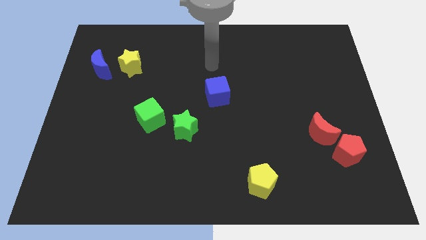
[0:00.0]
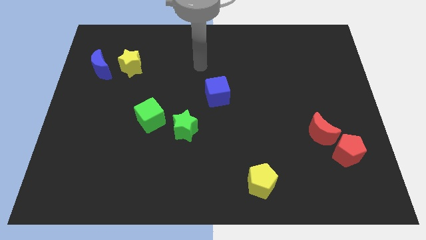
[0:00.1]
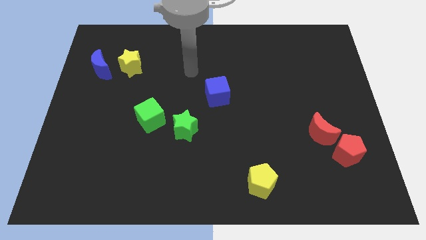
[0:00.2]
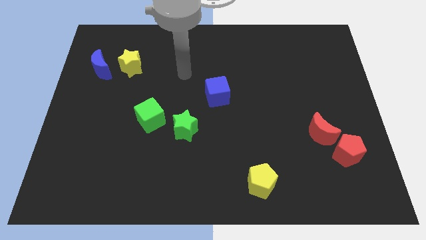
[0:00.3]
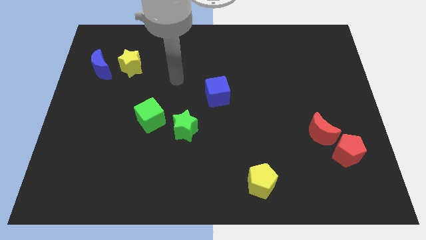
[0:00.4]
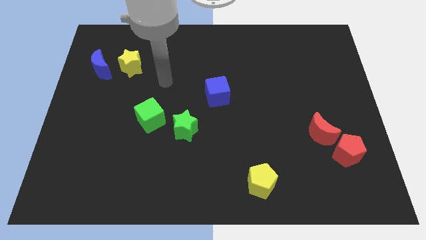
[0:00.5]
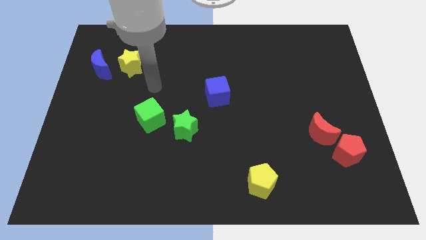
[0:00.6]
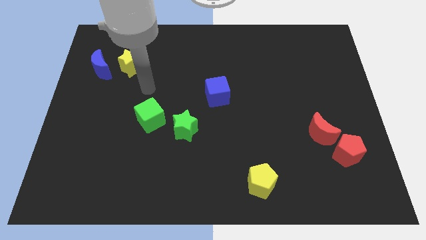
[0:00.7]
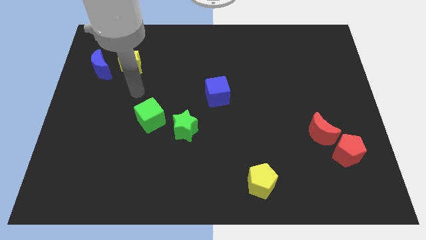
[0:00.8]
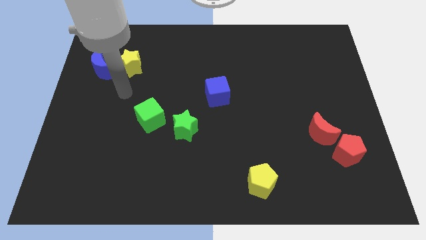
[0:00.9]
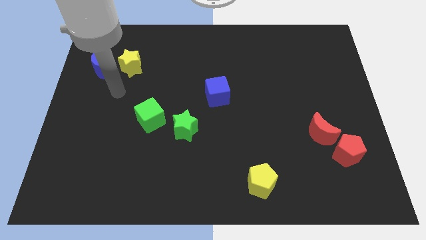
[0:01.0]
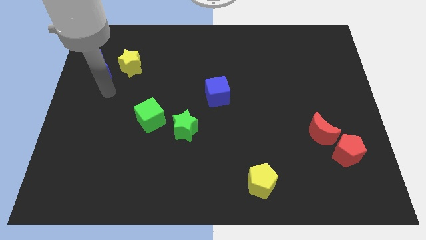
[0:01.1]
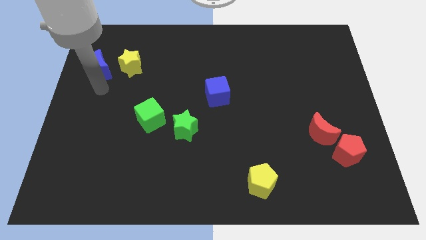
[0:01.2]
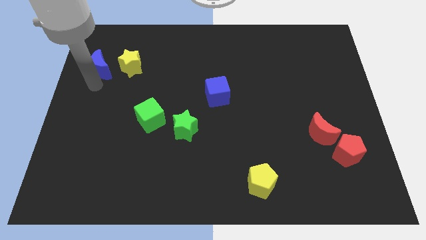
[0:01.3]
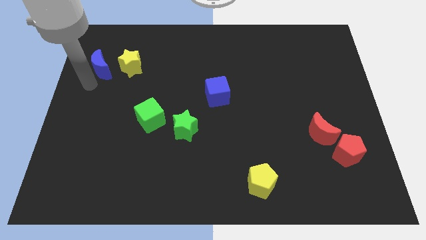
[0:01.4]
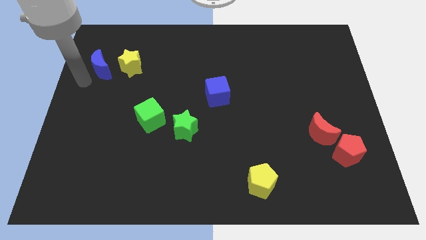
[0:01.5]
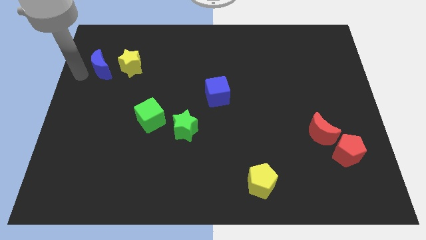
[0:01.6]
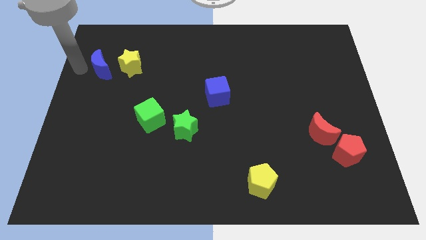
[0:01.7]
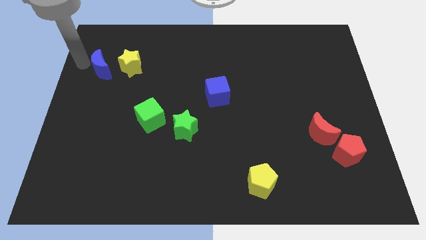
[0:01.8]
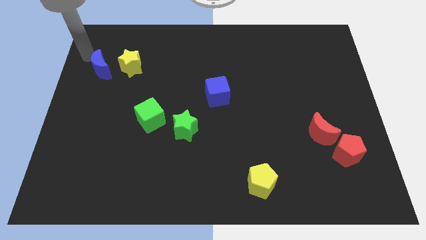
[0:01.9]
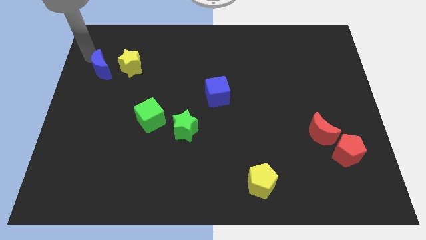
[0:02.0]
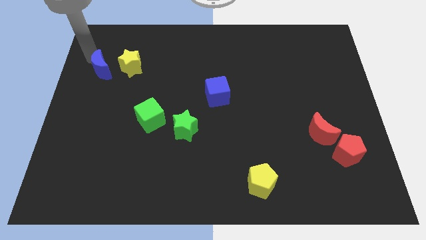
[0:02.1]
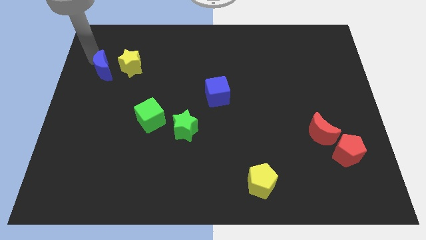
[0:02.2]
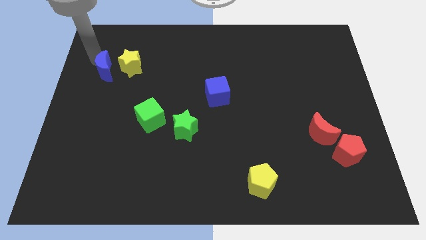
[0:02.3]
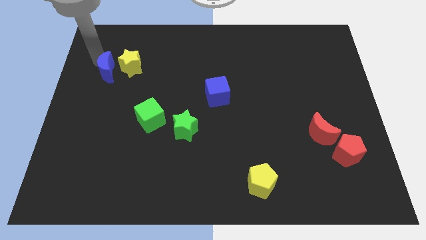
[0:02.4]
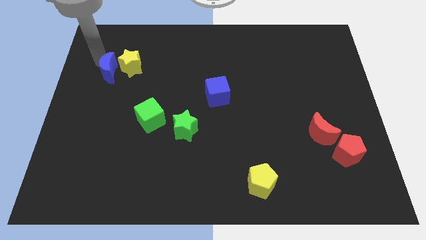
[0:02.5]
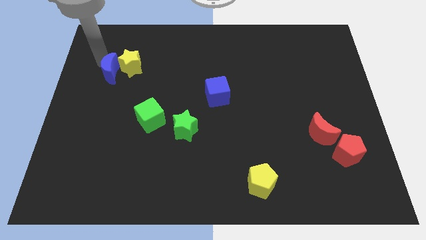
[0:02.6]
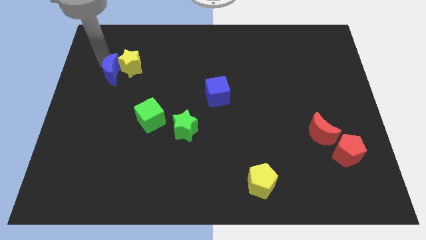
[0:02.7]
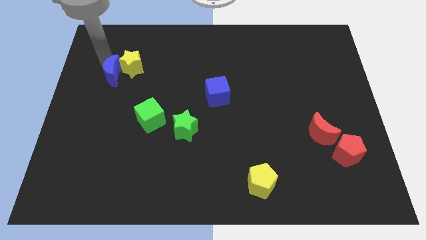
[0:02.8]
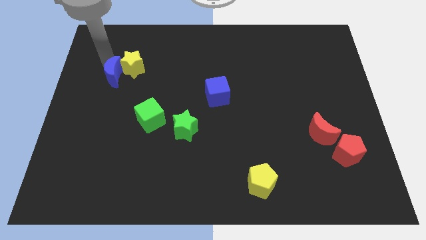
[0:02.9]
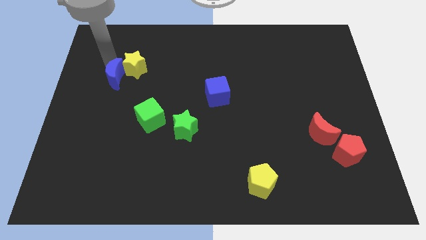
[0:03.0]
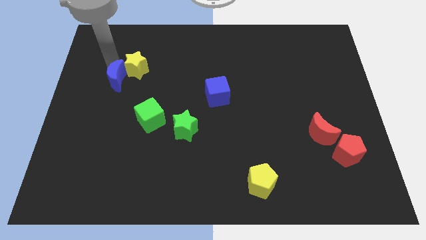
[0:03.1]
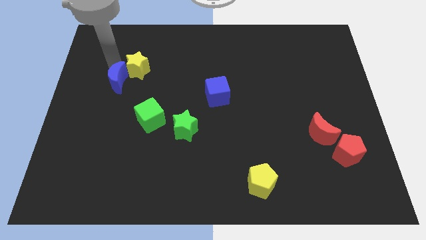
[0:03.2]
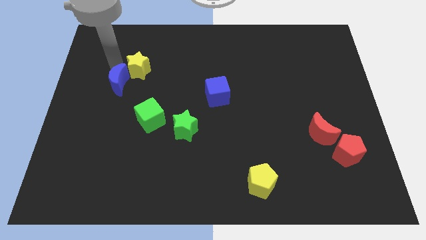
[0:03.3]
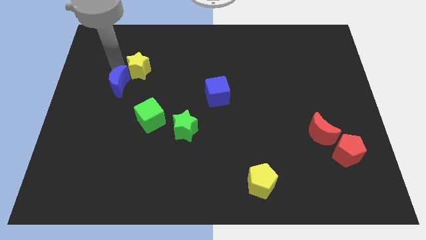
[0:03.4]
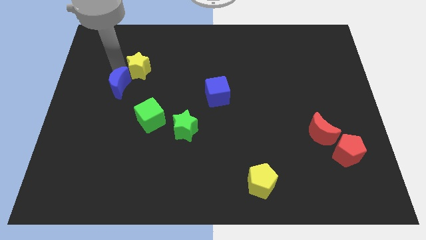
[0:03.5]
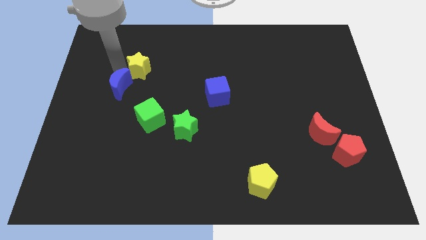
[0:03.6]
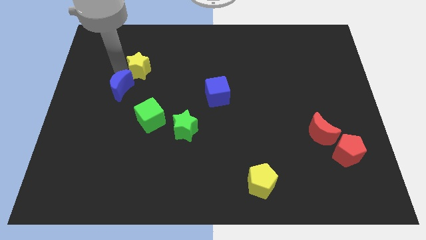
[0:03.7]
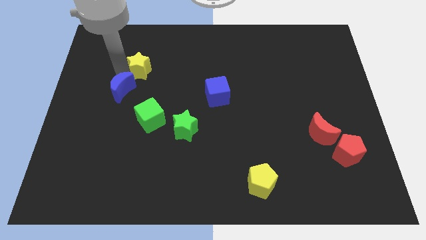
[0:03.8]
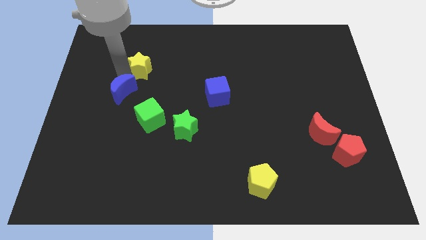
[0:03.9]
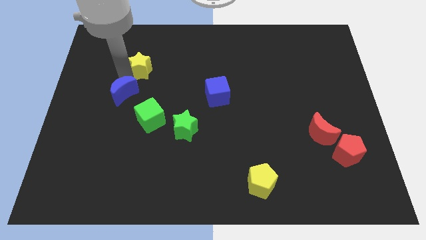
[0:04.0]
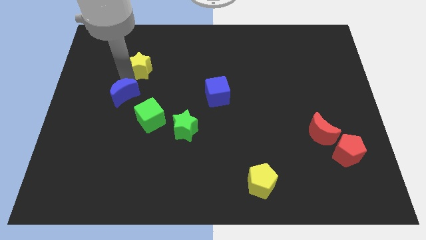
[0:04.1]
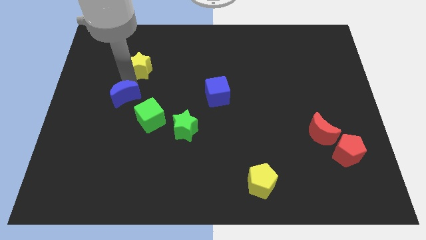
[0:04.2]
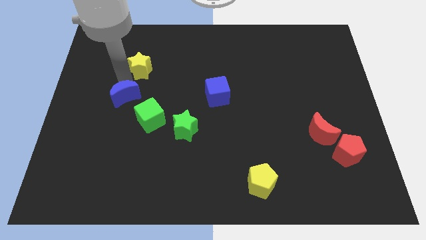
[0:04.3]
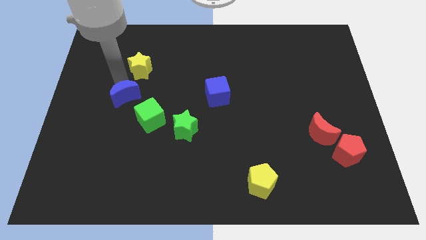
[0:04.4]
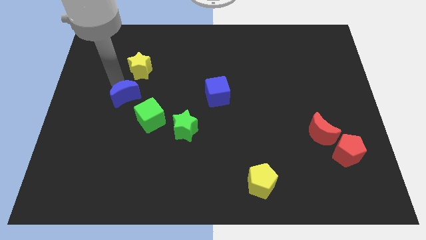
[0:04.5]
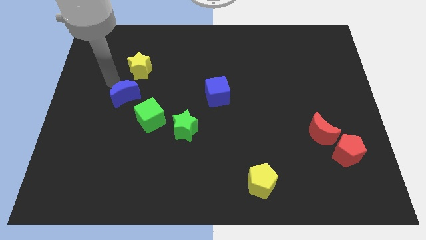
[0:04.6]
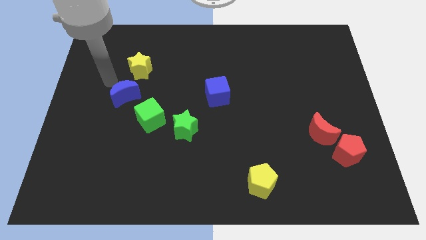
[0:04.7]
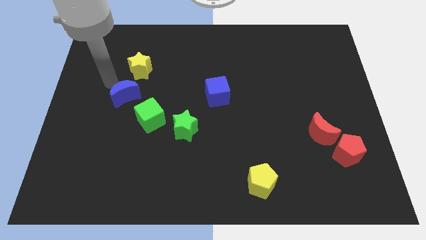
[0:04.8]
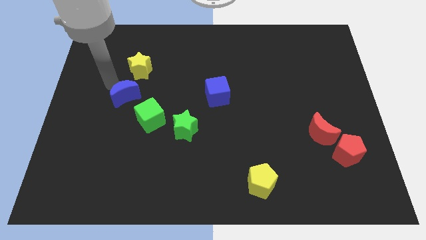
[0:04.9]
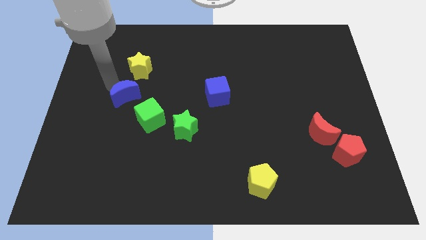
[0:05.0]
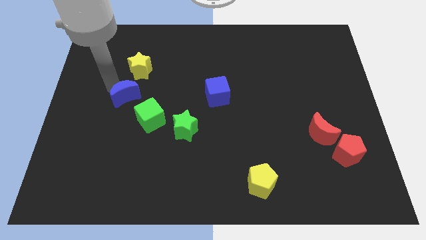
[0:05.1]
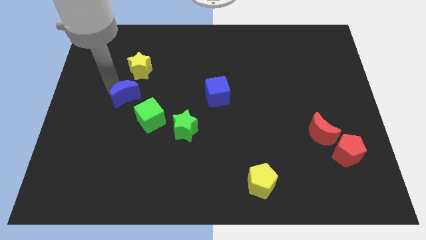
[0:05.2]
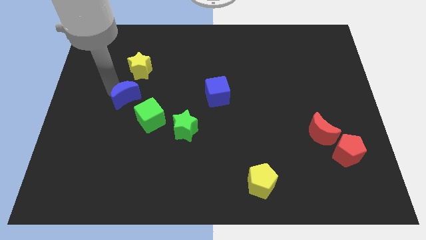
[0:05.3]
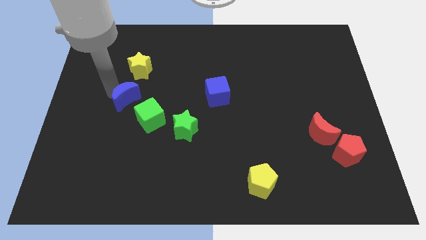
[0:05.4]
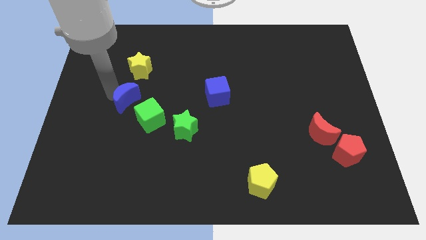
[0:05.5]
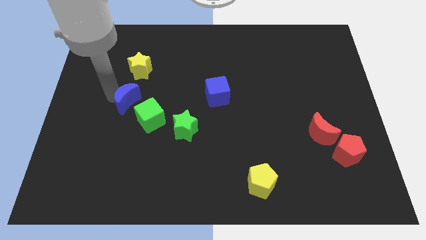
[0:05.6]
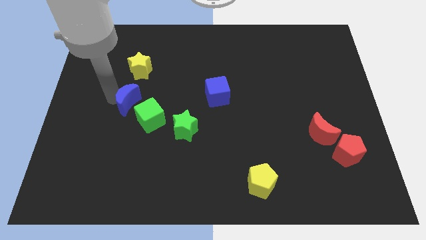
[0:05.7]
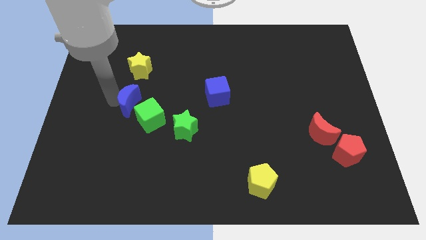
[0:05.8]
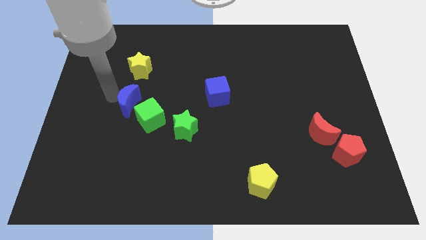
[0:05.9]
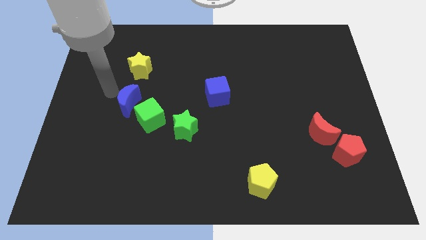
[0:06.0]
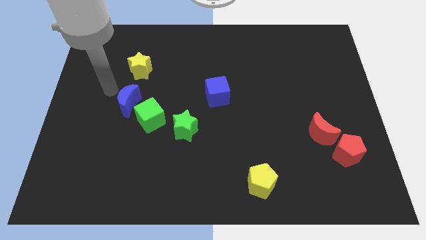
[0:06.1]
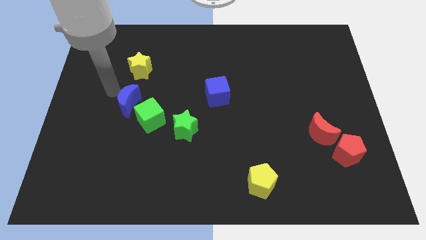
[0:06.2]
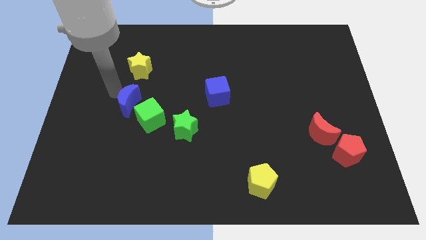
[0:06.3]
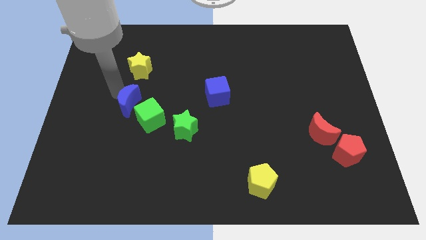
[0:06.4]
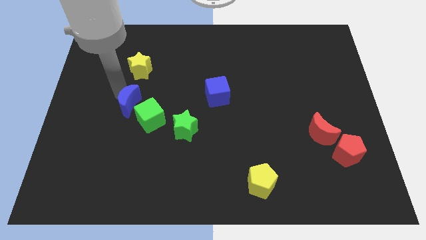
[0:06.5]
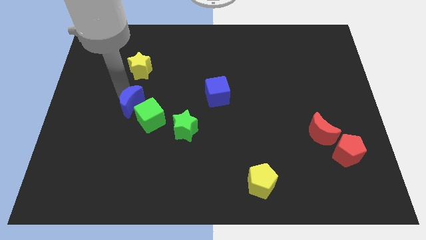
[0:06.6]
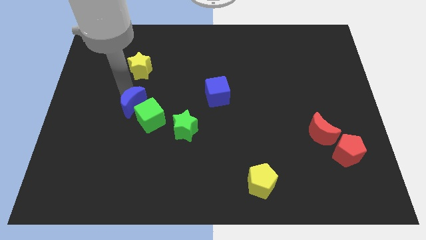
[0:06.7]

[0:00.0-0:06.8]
move the blue moon close to the green cube

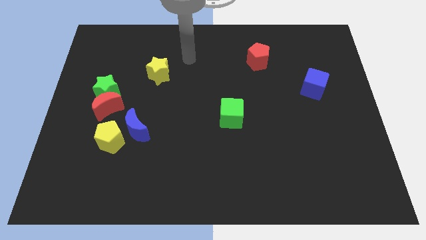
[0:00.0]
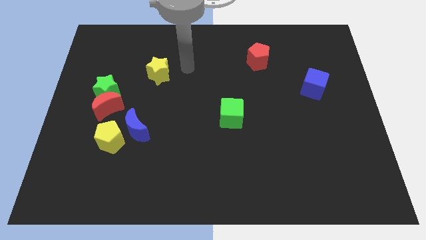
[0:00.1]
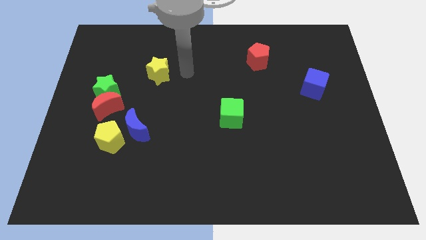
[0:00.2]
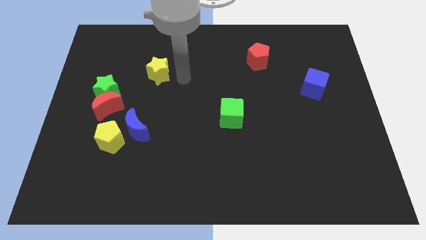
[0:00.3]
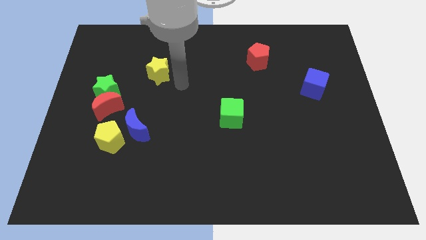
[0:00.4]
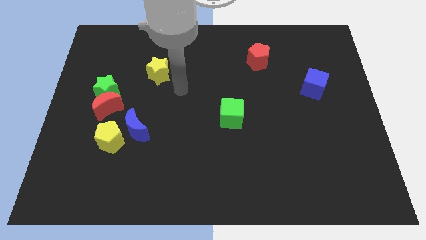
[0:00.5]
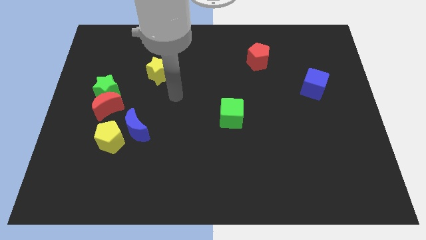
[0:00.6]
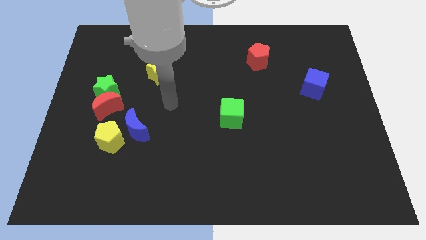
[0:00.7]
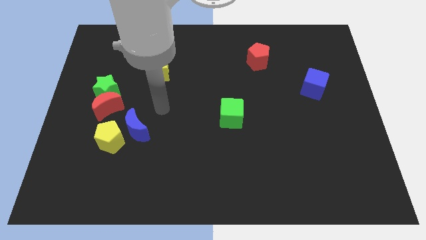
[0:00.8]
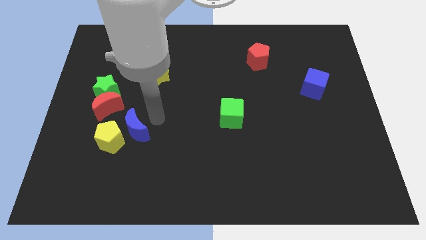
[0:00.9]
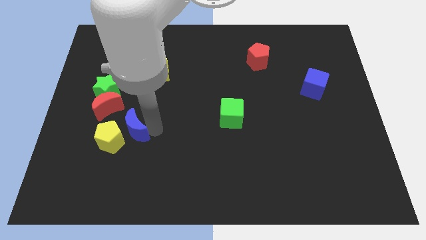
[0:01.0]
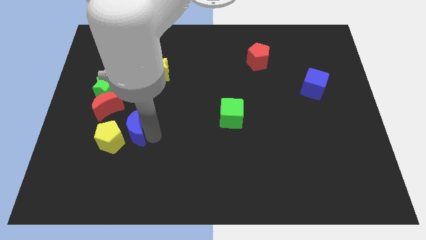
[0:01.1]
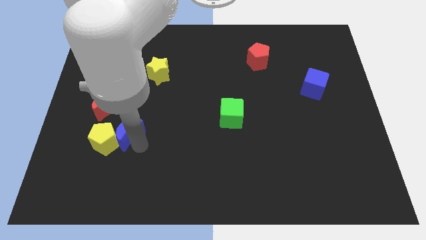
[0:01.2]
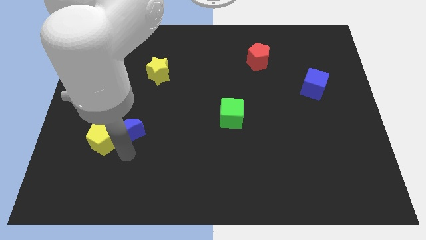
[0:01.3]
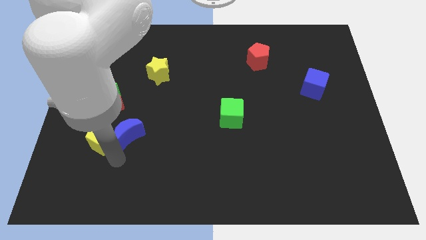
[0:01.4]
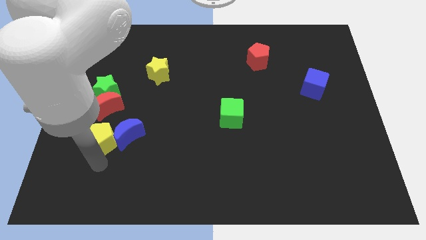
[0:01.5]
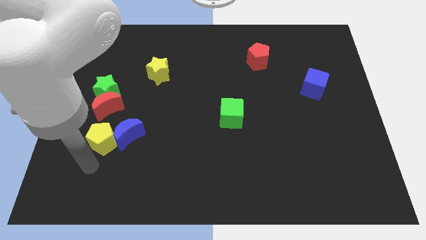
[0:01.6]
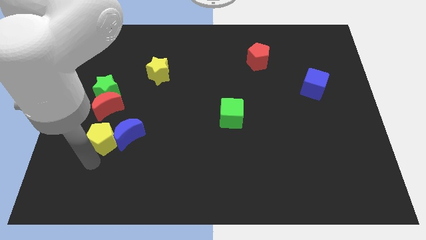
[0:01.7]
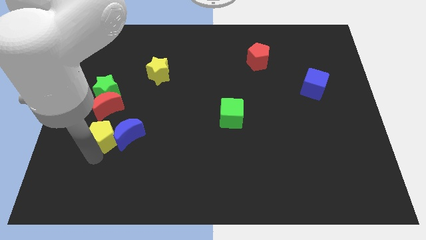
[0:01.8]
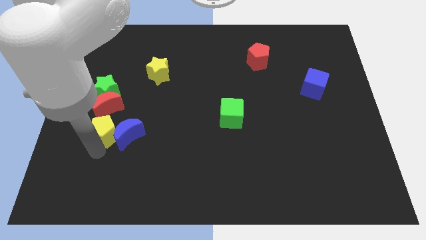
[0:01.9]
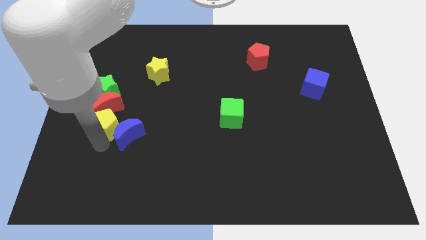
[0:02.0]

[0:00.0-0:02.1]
slide the yellow pentagon next to the red moon
